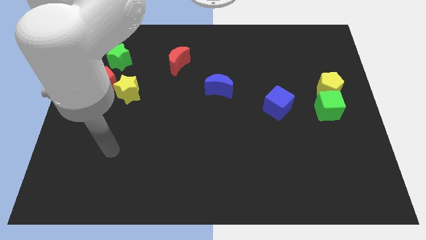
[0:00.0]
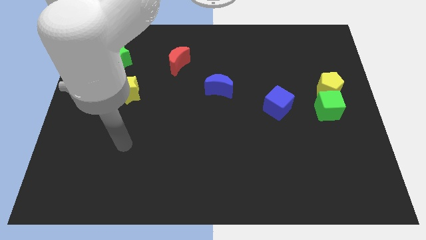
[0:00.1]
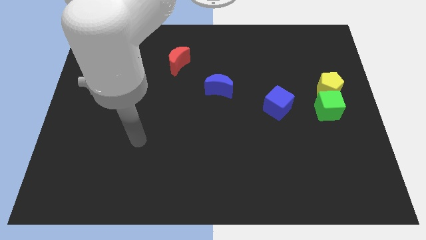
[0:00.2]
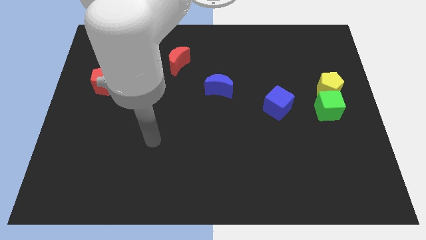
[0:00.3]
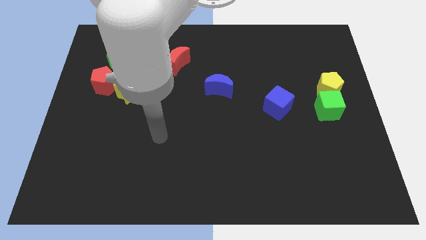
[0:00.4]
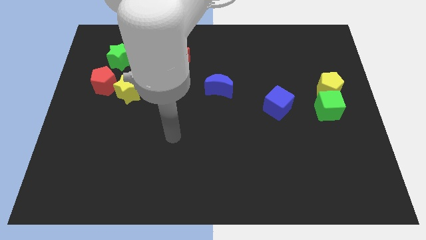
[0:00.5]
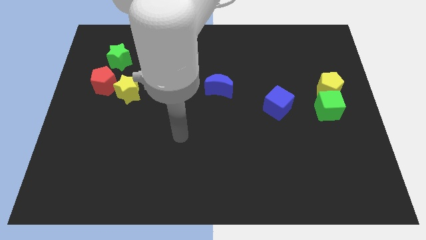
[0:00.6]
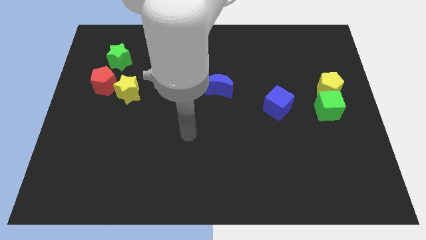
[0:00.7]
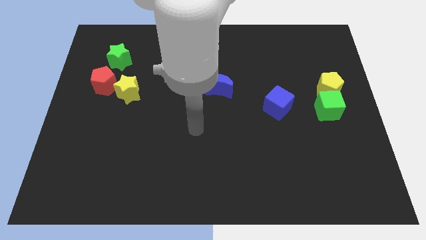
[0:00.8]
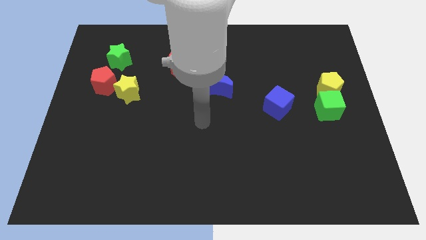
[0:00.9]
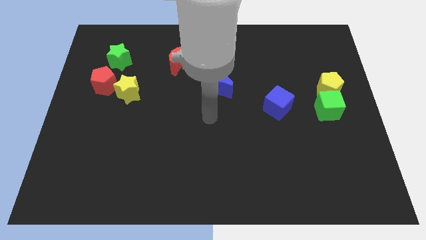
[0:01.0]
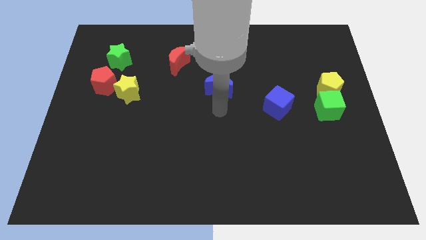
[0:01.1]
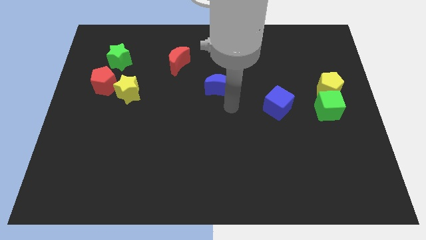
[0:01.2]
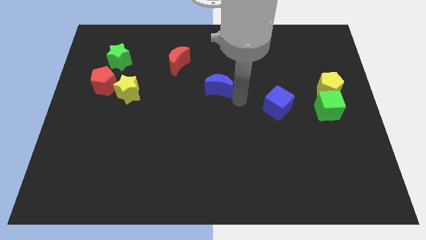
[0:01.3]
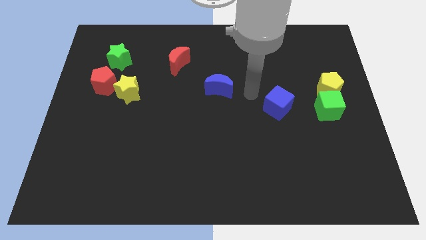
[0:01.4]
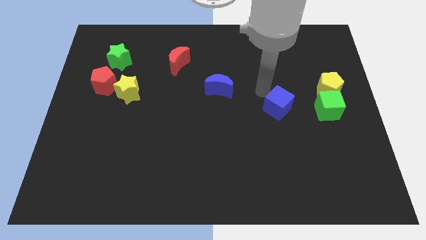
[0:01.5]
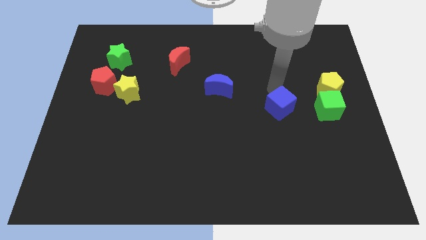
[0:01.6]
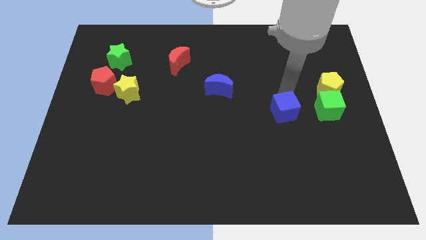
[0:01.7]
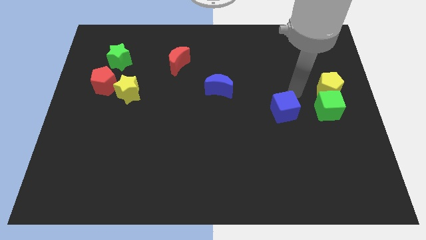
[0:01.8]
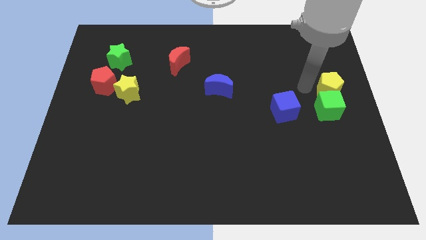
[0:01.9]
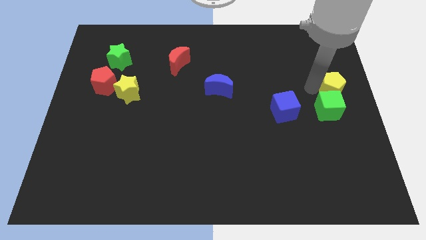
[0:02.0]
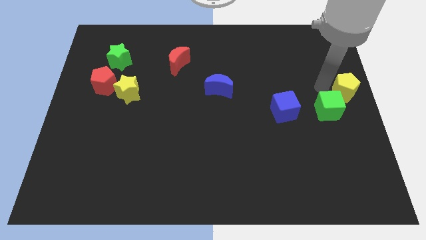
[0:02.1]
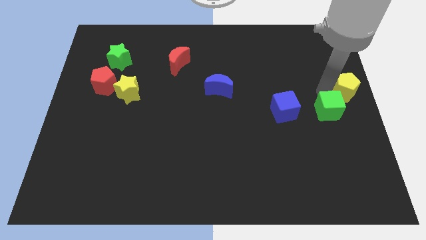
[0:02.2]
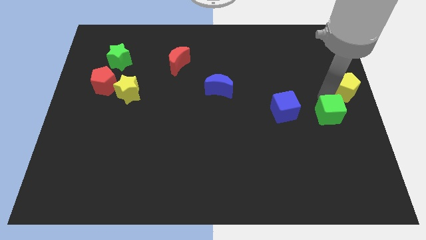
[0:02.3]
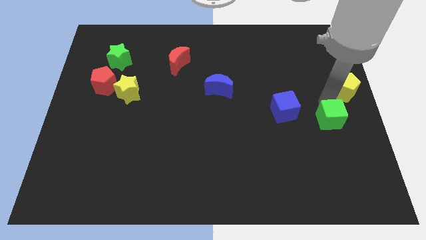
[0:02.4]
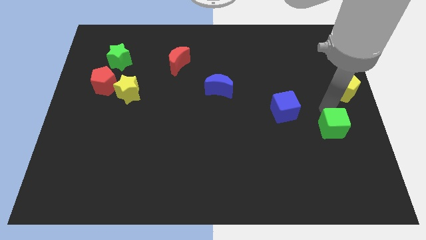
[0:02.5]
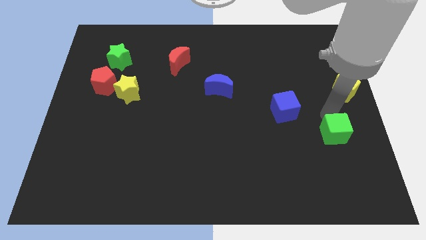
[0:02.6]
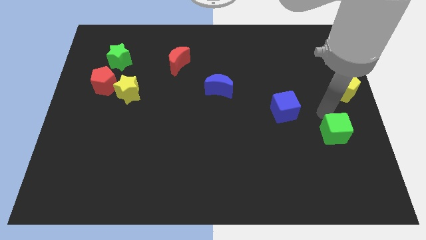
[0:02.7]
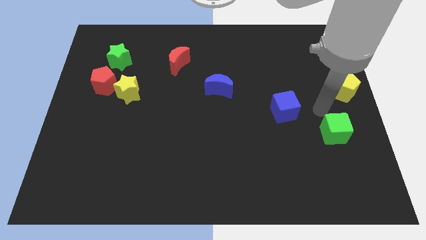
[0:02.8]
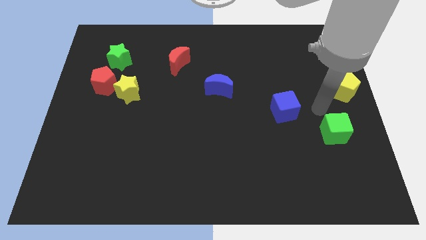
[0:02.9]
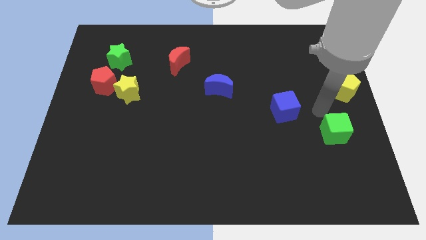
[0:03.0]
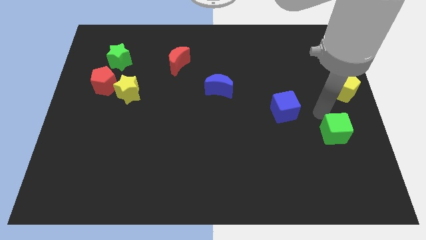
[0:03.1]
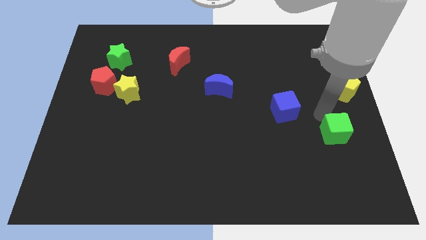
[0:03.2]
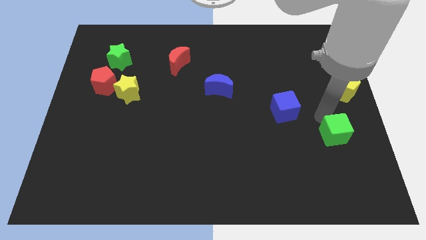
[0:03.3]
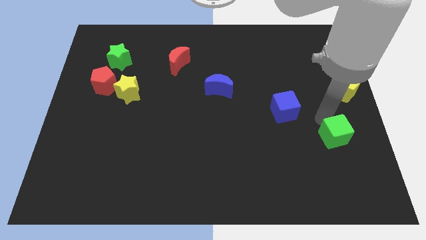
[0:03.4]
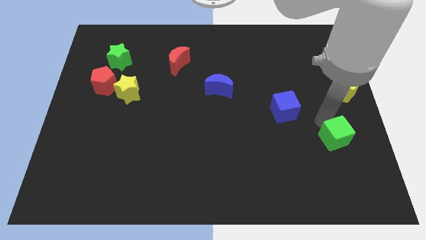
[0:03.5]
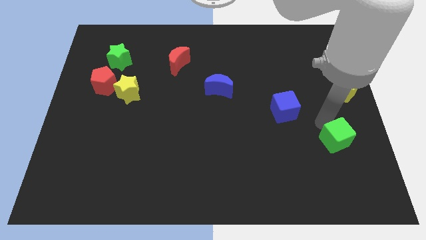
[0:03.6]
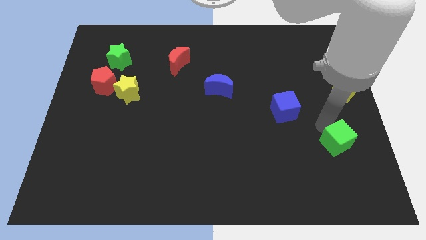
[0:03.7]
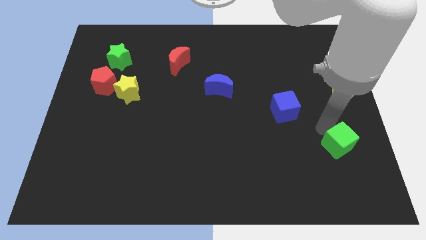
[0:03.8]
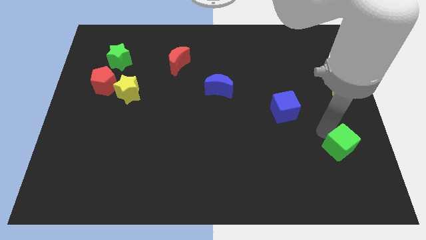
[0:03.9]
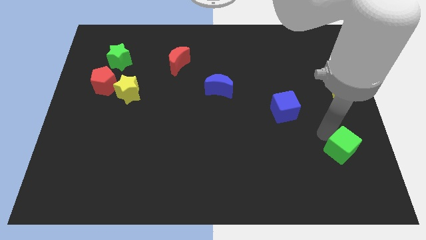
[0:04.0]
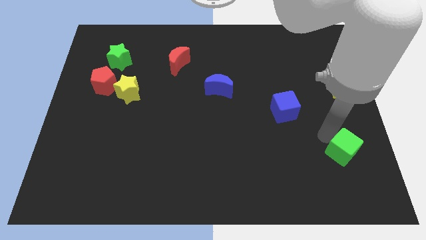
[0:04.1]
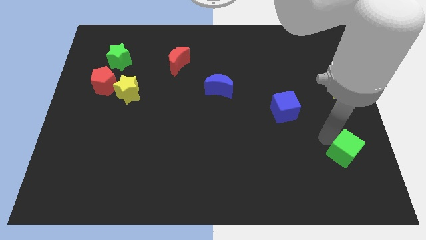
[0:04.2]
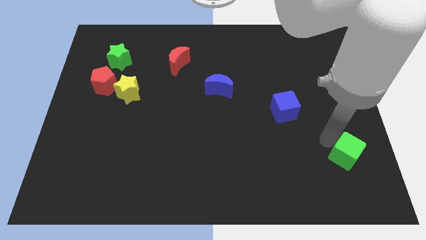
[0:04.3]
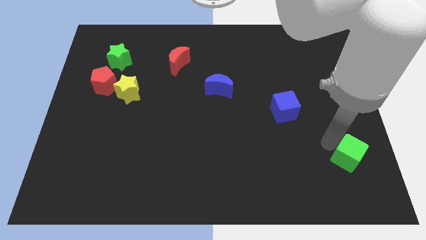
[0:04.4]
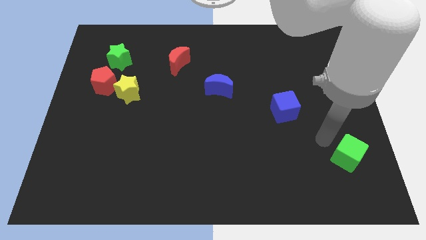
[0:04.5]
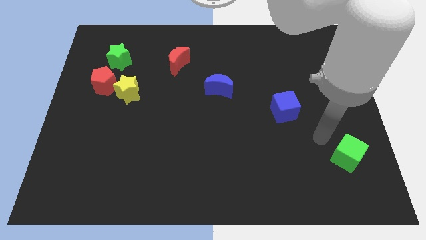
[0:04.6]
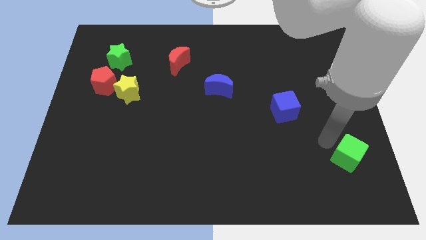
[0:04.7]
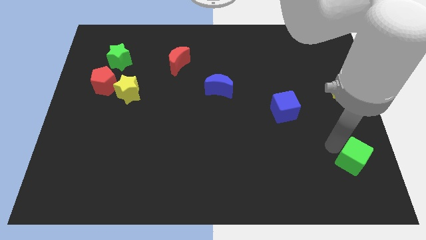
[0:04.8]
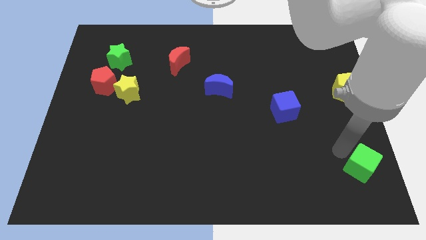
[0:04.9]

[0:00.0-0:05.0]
move the green cube to the bottom right

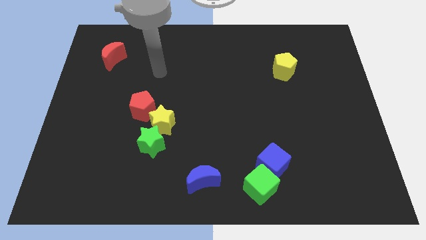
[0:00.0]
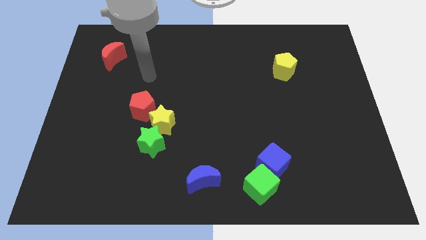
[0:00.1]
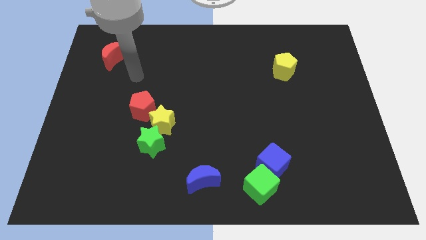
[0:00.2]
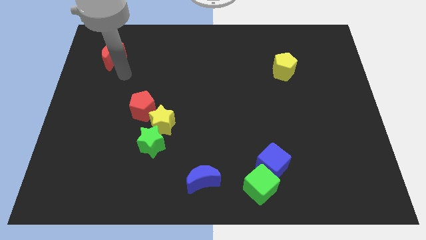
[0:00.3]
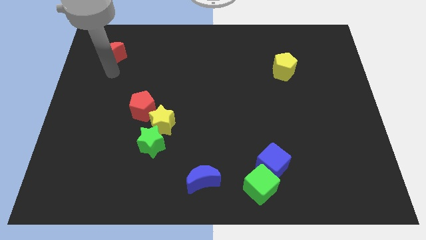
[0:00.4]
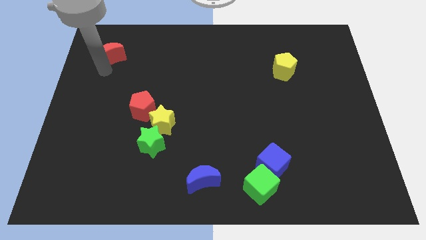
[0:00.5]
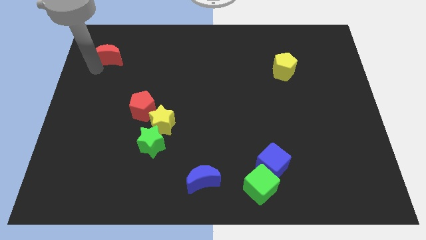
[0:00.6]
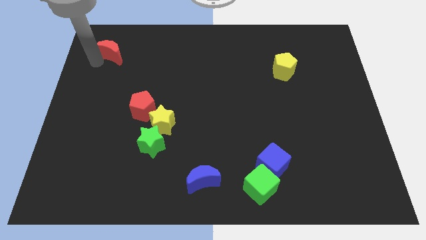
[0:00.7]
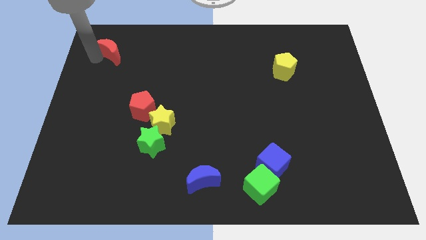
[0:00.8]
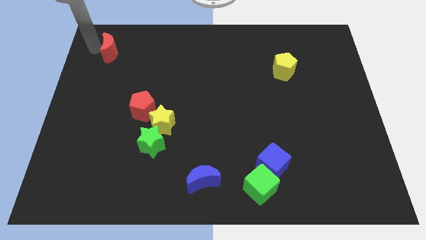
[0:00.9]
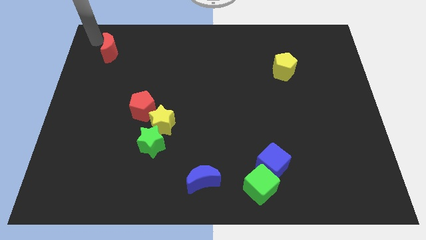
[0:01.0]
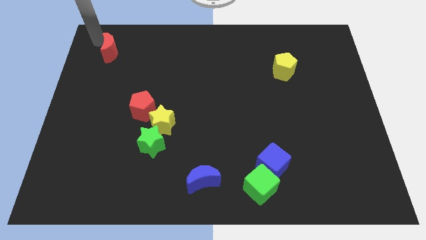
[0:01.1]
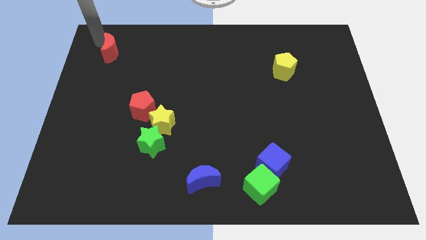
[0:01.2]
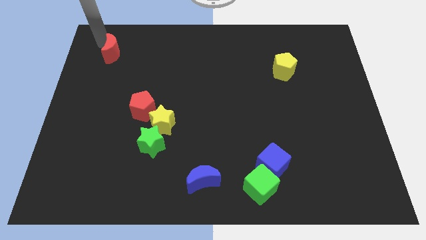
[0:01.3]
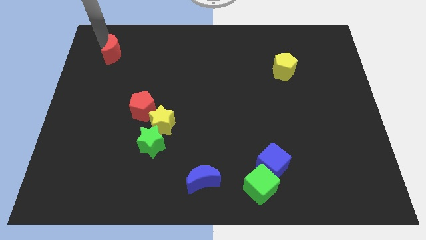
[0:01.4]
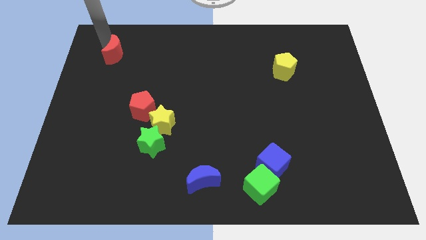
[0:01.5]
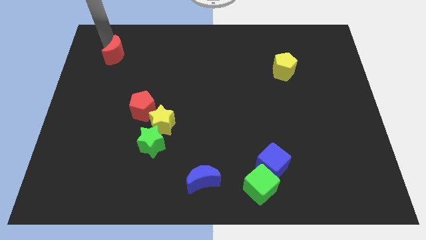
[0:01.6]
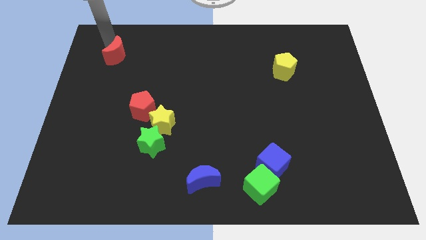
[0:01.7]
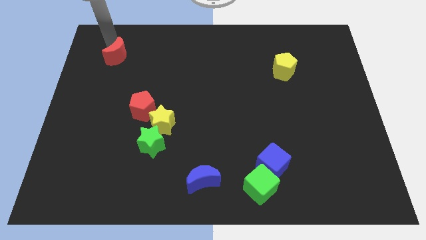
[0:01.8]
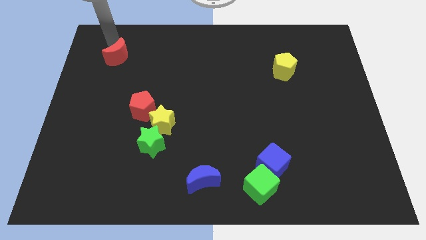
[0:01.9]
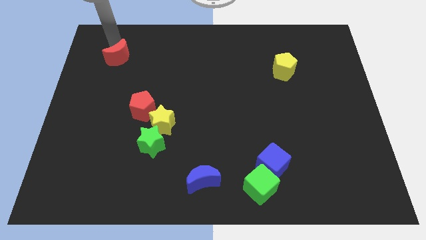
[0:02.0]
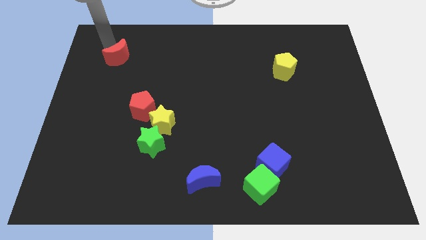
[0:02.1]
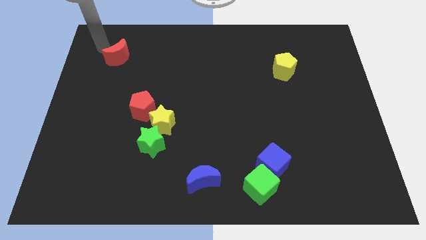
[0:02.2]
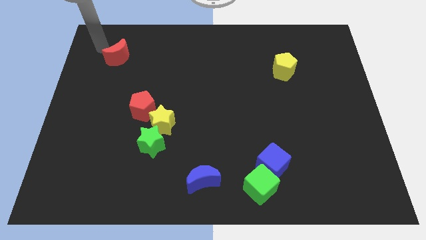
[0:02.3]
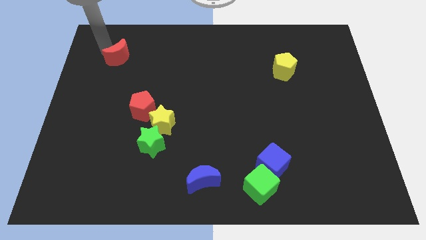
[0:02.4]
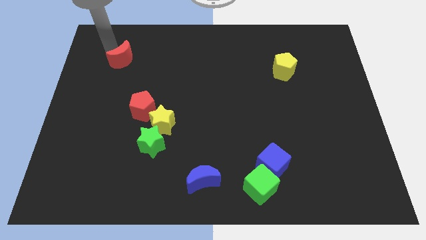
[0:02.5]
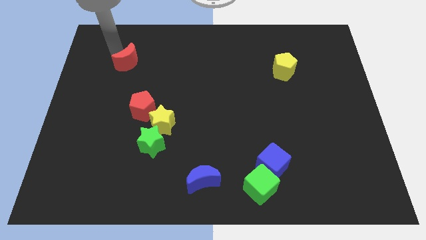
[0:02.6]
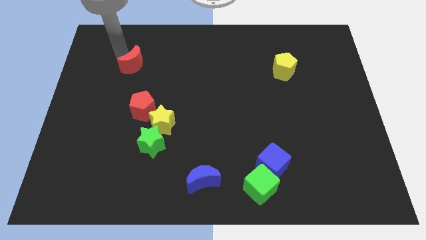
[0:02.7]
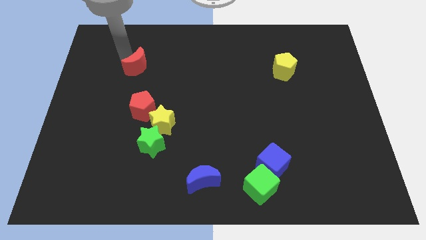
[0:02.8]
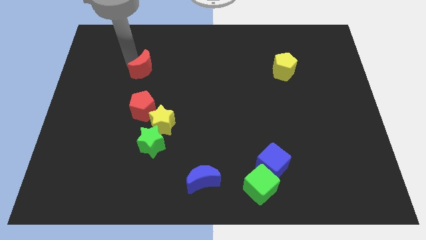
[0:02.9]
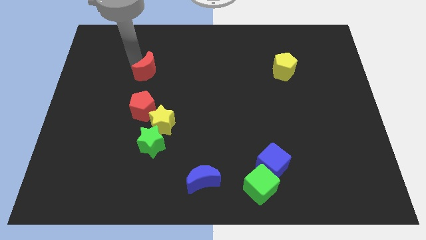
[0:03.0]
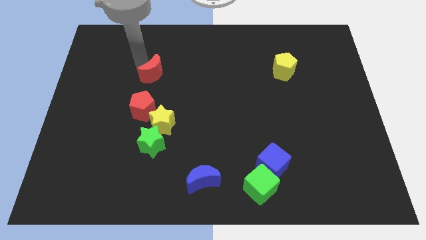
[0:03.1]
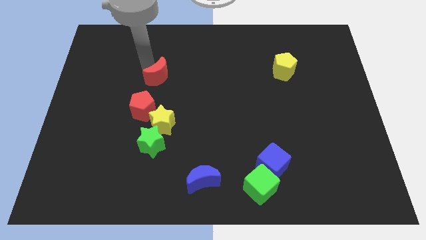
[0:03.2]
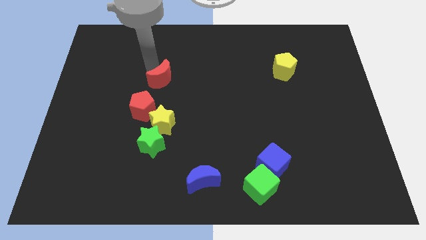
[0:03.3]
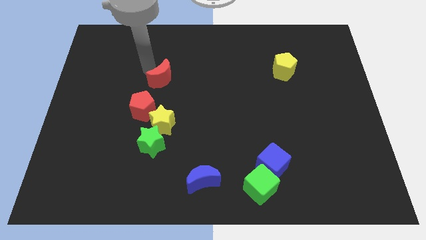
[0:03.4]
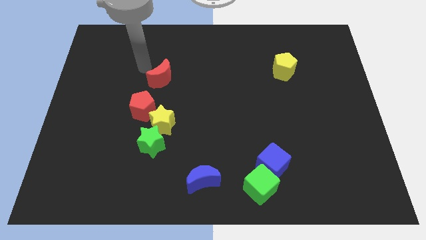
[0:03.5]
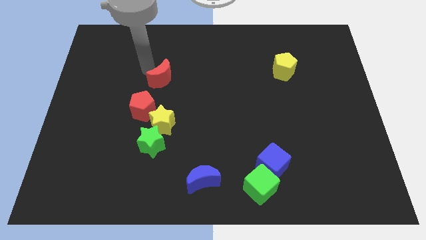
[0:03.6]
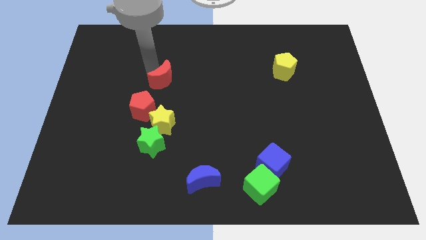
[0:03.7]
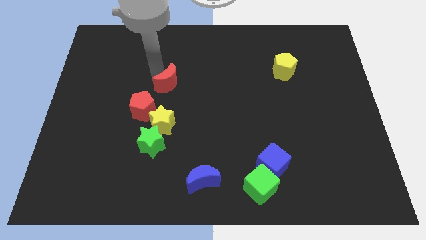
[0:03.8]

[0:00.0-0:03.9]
slide the red moon to the middle
